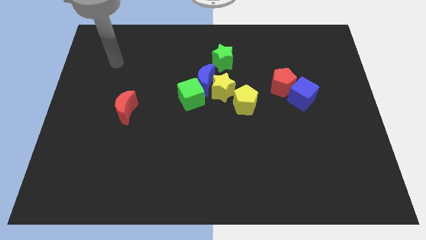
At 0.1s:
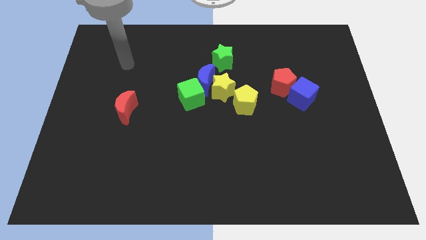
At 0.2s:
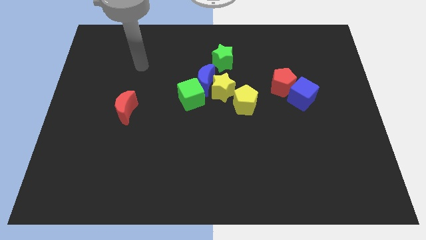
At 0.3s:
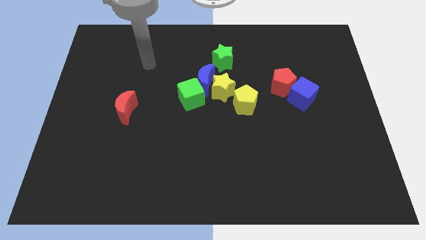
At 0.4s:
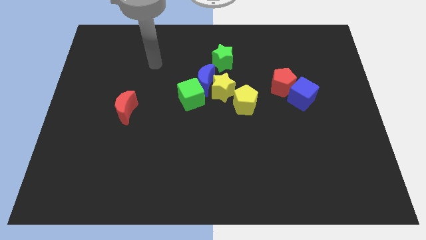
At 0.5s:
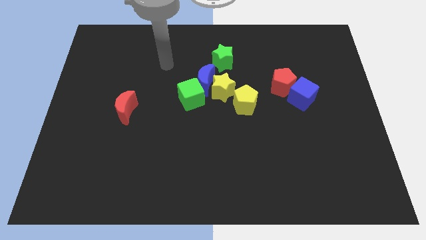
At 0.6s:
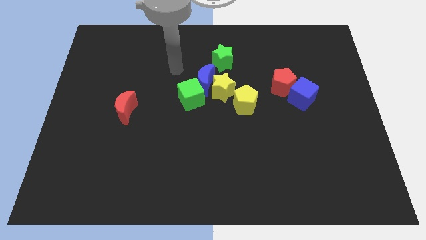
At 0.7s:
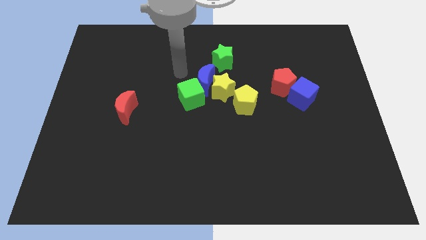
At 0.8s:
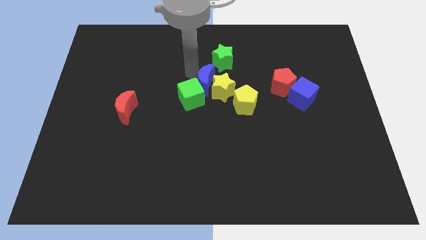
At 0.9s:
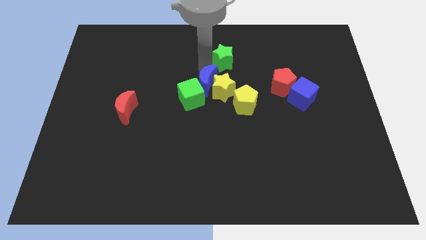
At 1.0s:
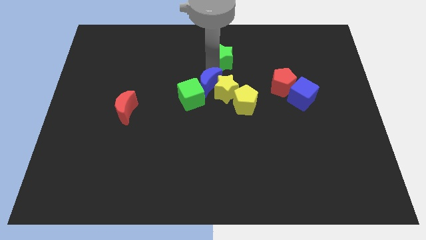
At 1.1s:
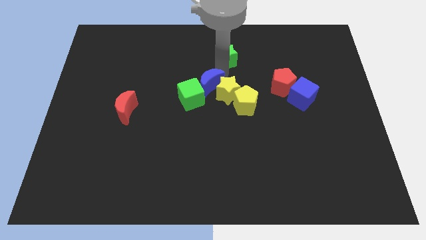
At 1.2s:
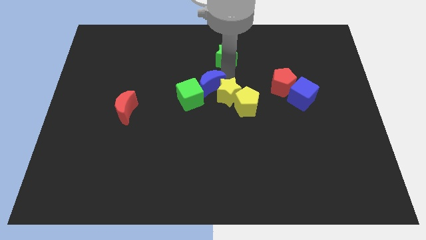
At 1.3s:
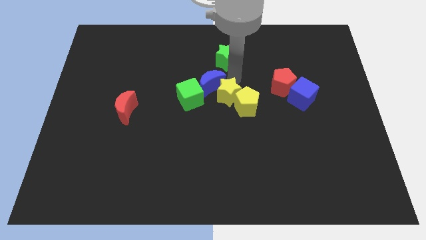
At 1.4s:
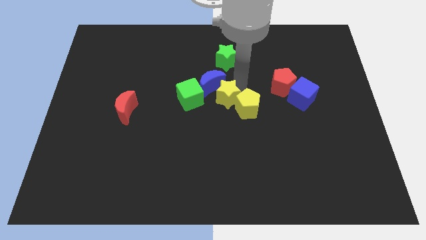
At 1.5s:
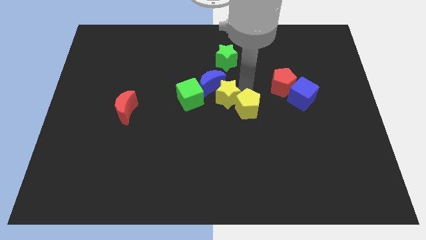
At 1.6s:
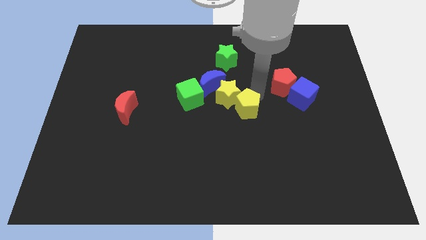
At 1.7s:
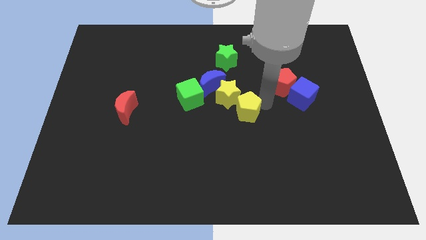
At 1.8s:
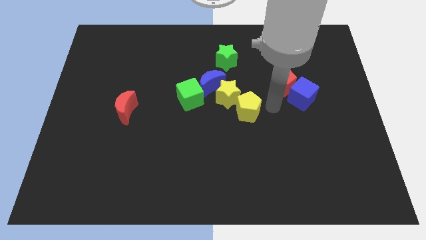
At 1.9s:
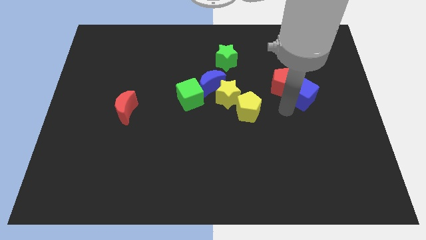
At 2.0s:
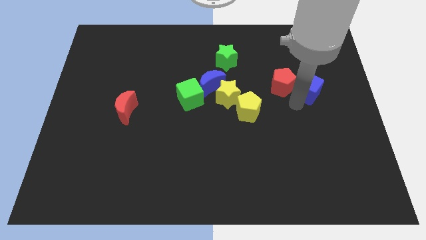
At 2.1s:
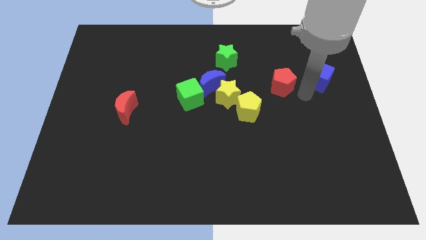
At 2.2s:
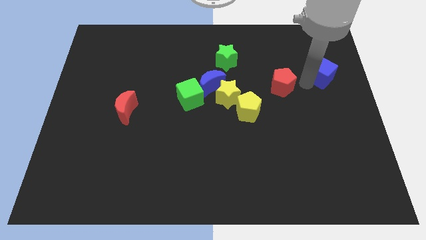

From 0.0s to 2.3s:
move the red pentagon away from the blue cube

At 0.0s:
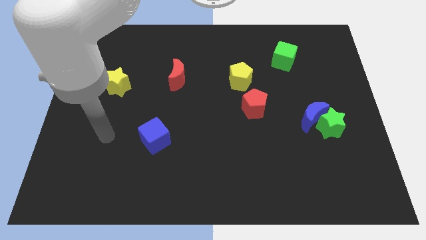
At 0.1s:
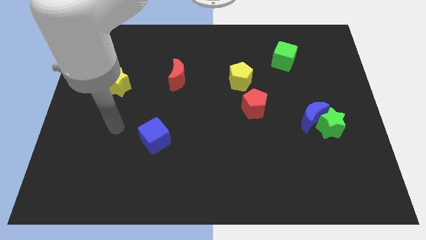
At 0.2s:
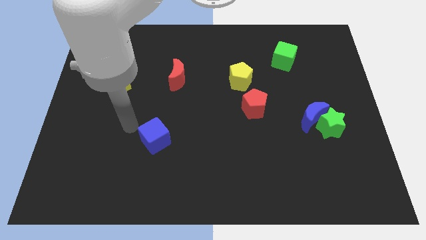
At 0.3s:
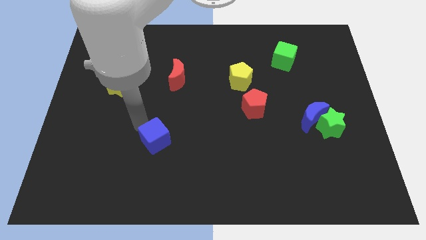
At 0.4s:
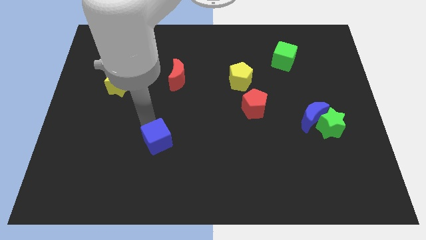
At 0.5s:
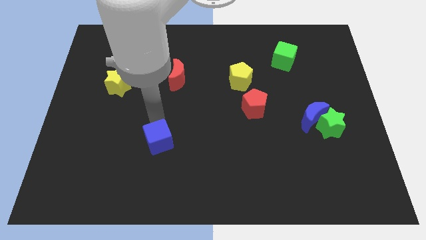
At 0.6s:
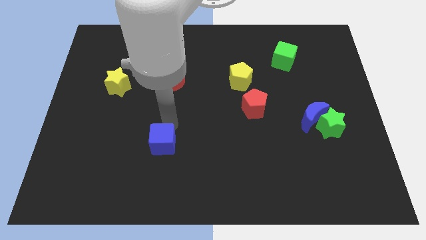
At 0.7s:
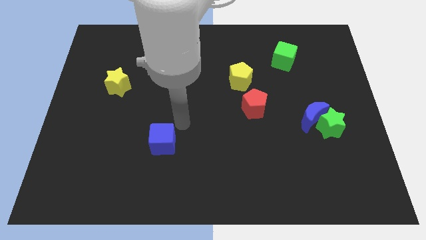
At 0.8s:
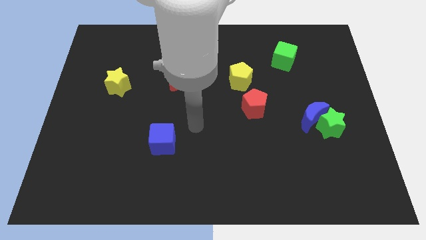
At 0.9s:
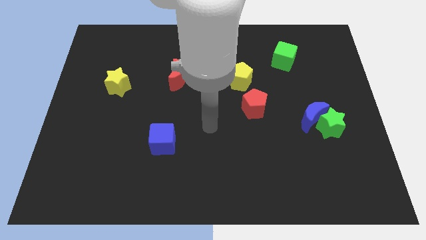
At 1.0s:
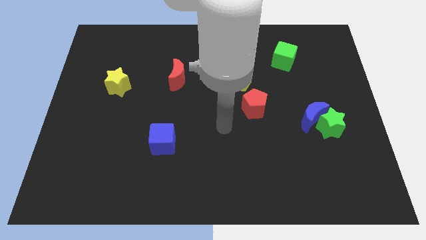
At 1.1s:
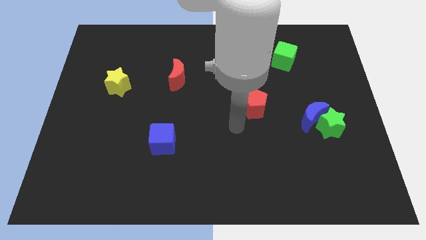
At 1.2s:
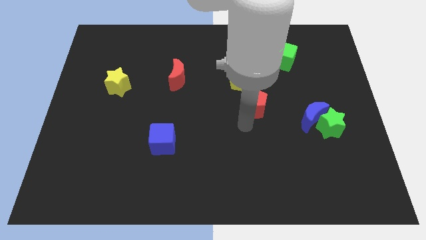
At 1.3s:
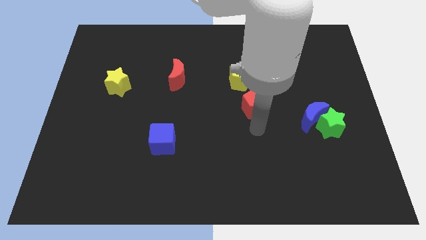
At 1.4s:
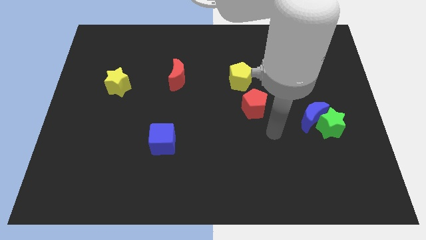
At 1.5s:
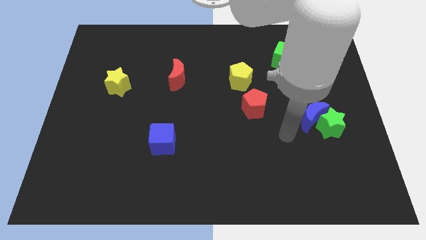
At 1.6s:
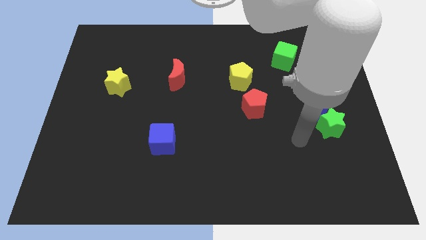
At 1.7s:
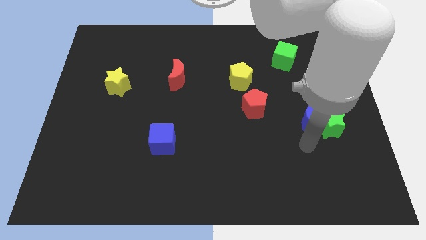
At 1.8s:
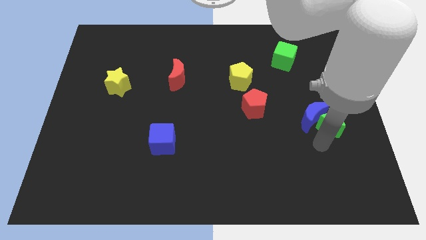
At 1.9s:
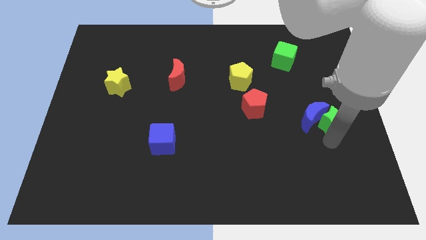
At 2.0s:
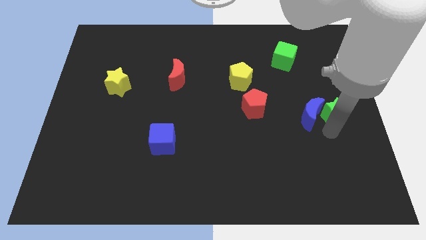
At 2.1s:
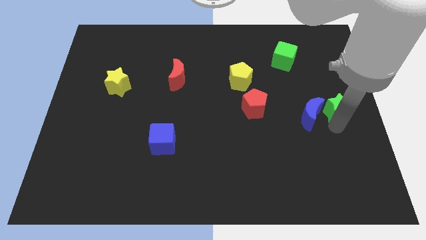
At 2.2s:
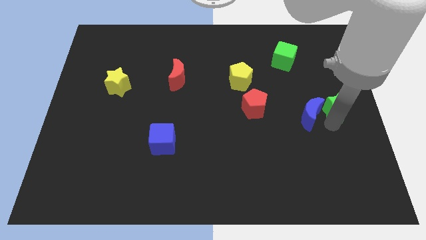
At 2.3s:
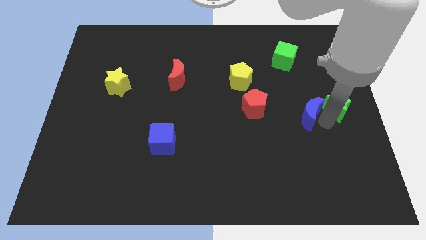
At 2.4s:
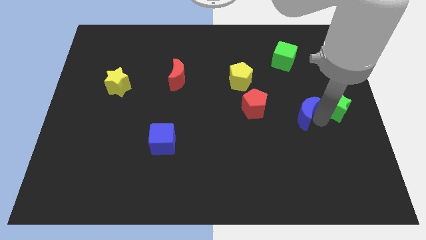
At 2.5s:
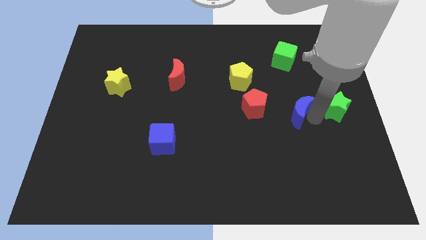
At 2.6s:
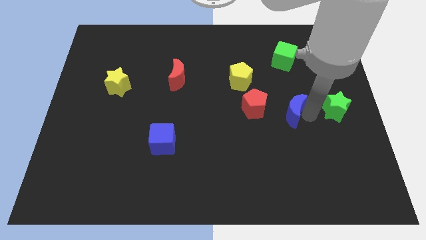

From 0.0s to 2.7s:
separate the blue moon from the green star

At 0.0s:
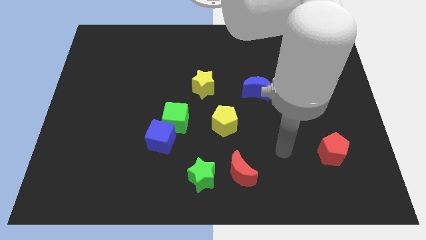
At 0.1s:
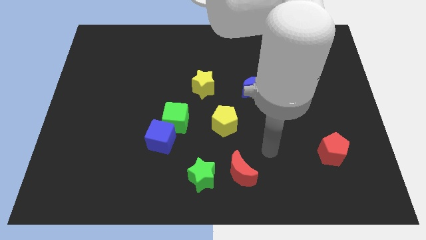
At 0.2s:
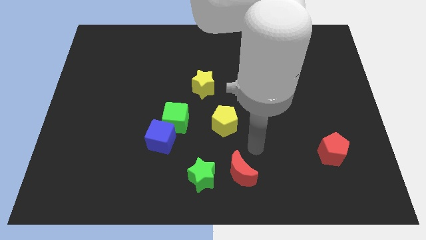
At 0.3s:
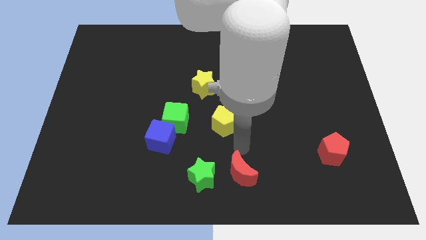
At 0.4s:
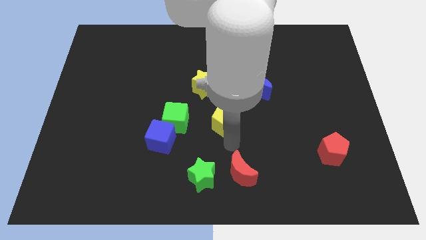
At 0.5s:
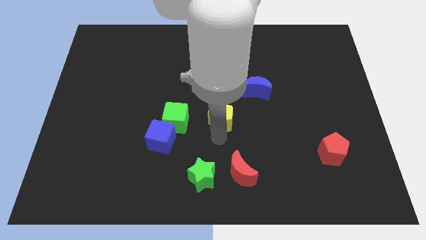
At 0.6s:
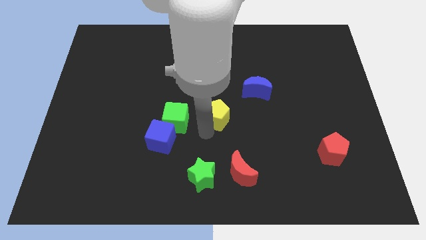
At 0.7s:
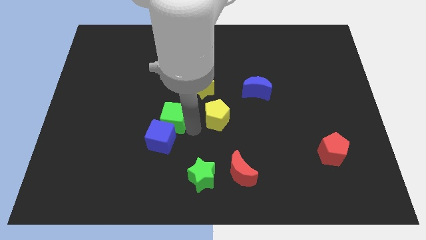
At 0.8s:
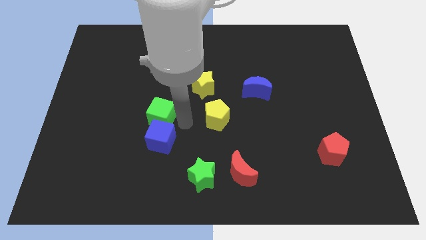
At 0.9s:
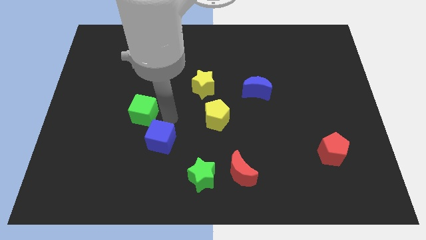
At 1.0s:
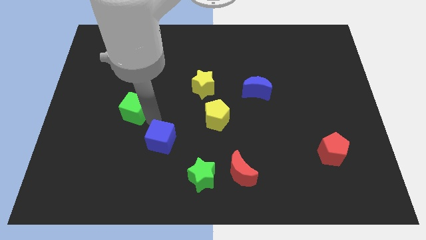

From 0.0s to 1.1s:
pull the blue cube apart from the green cube

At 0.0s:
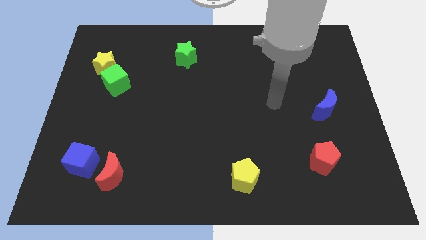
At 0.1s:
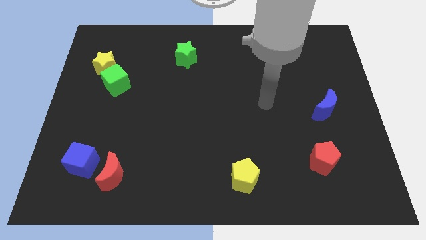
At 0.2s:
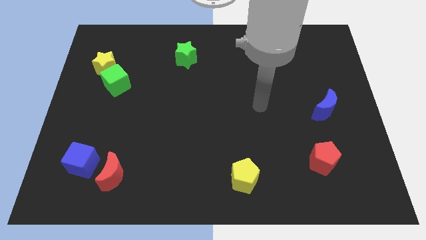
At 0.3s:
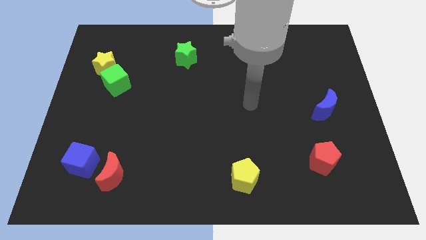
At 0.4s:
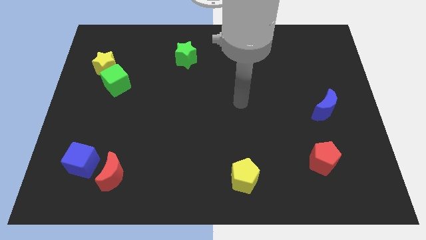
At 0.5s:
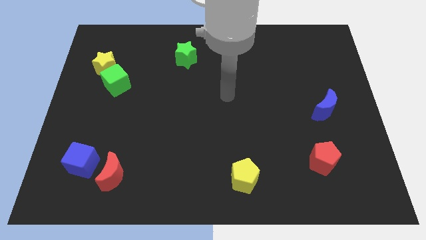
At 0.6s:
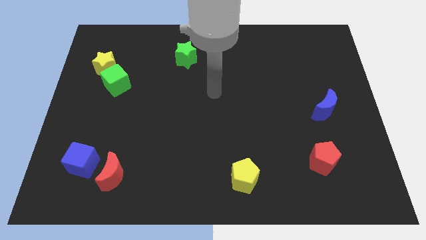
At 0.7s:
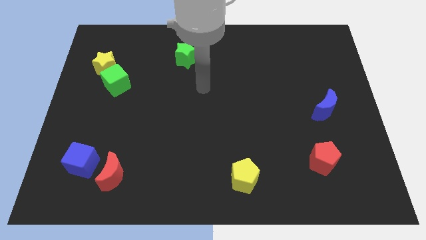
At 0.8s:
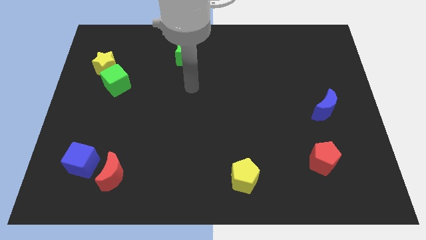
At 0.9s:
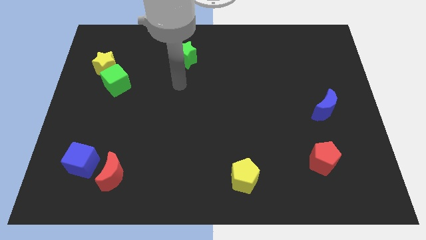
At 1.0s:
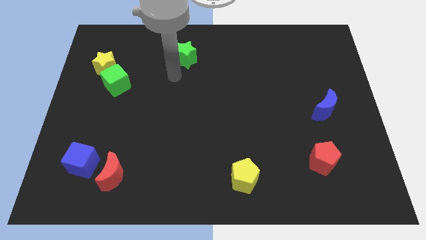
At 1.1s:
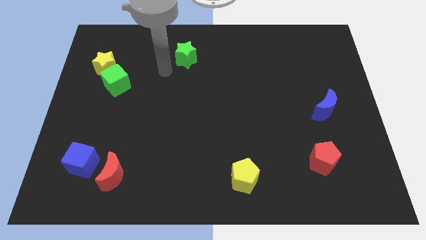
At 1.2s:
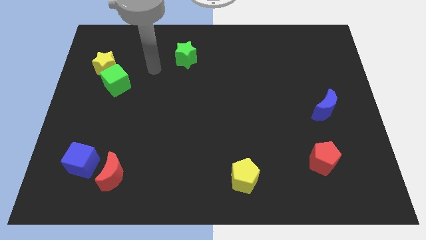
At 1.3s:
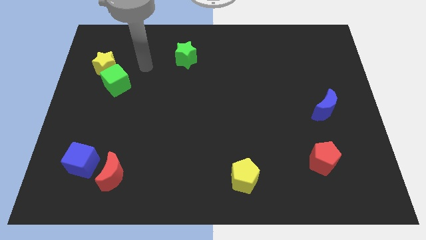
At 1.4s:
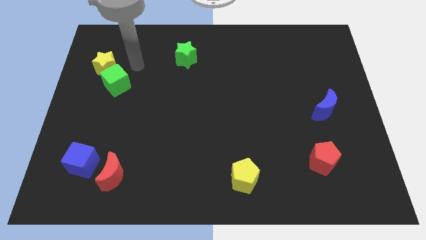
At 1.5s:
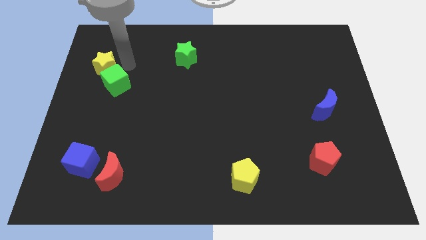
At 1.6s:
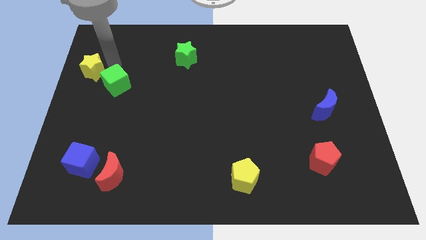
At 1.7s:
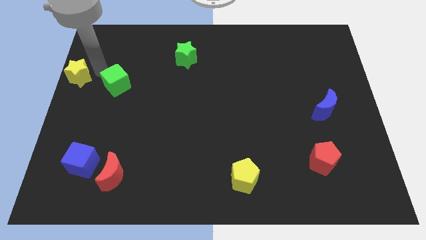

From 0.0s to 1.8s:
move the green cube away from the yellow star

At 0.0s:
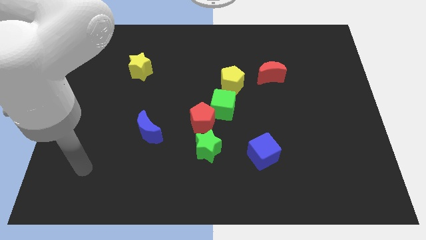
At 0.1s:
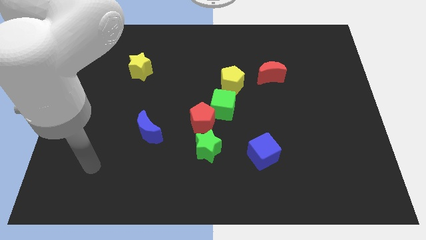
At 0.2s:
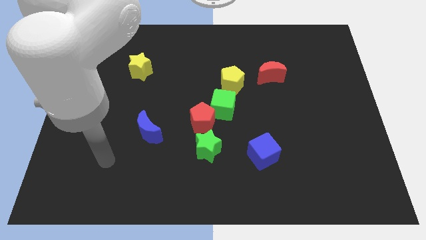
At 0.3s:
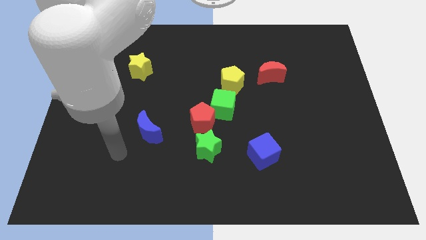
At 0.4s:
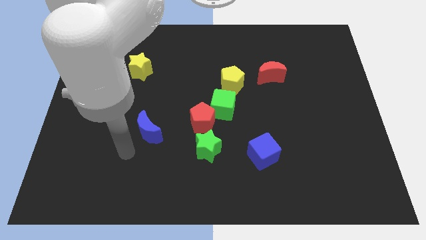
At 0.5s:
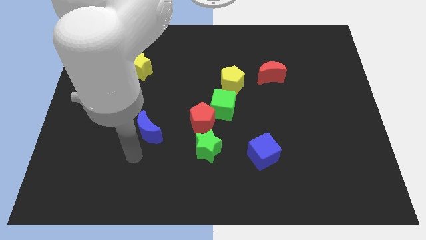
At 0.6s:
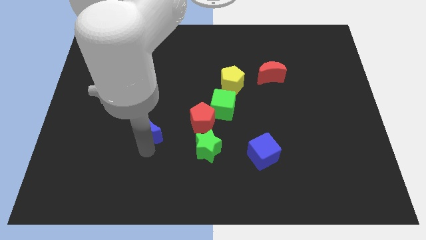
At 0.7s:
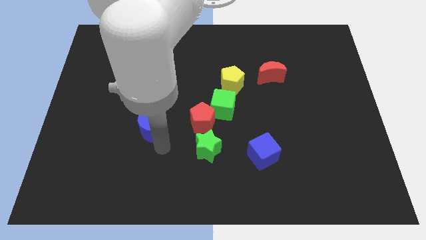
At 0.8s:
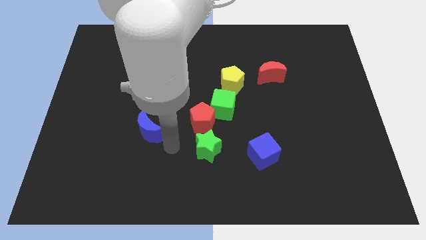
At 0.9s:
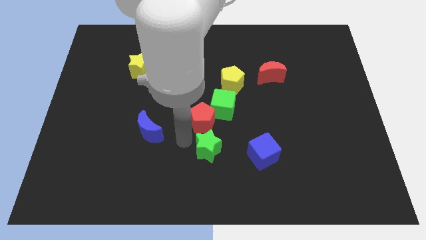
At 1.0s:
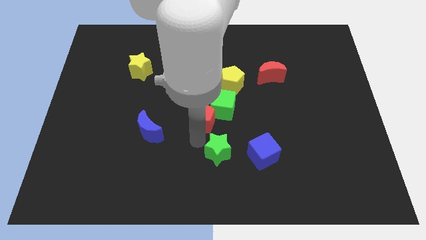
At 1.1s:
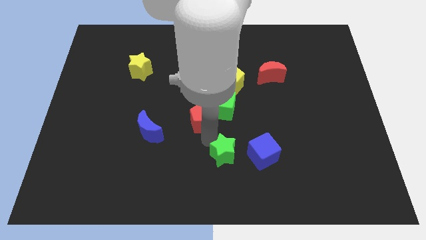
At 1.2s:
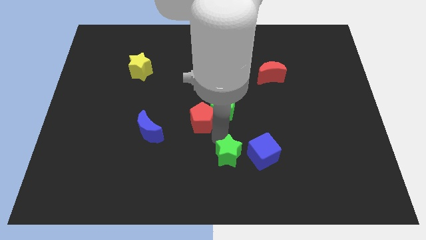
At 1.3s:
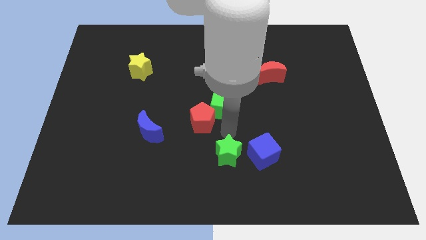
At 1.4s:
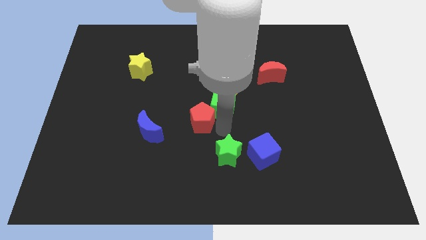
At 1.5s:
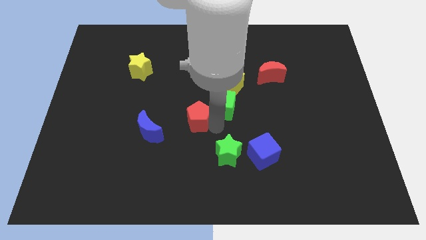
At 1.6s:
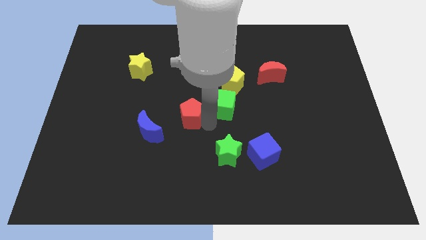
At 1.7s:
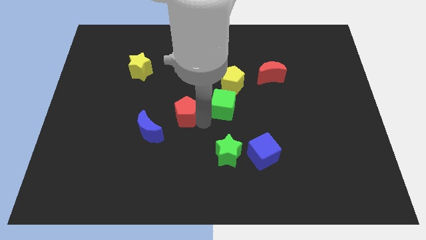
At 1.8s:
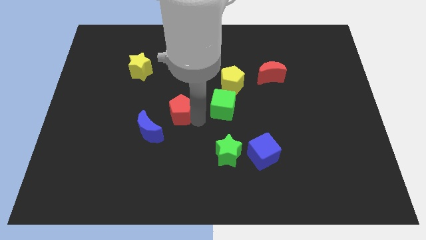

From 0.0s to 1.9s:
move the red pentagon away from the green cube and green star
